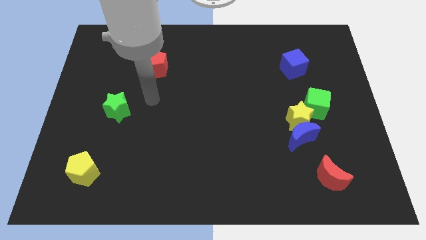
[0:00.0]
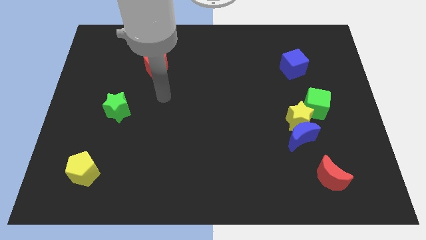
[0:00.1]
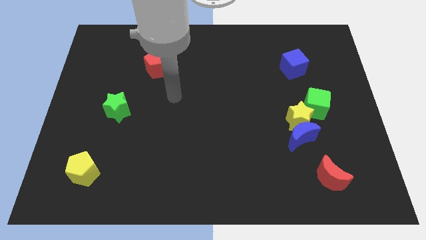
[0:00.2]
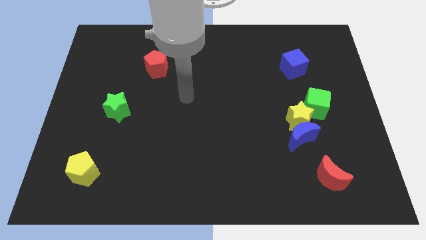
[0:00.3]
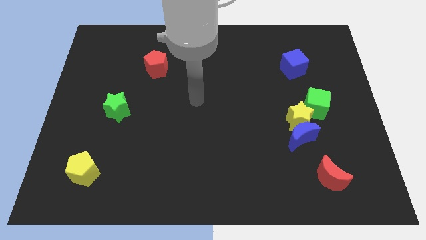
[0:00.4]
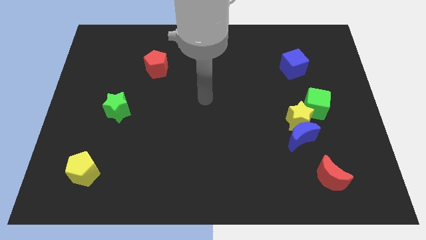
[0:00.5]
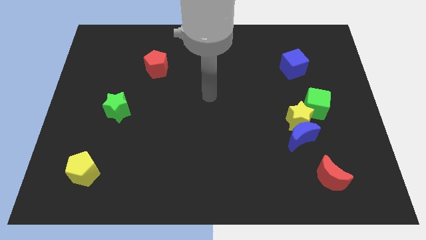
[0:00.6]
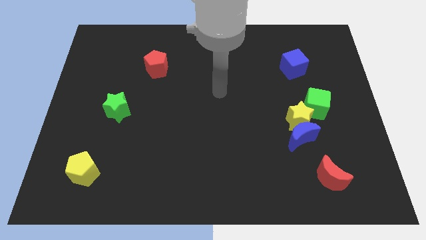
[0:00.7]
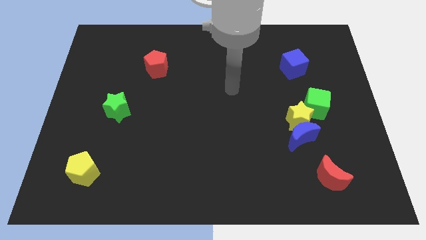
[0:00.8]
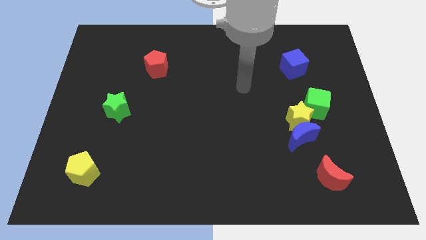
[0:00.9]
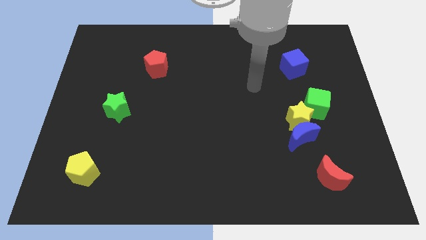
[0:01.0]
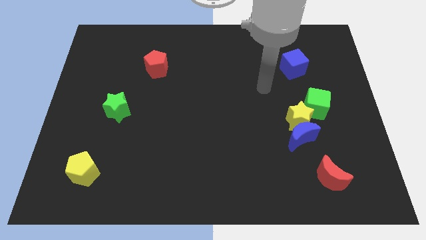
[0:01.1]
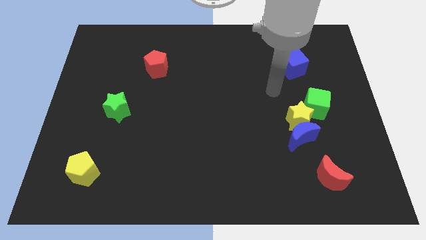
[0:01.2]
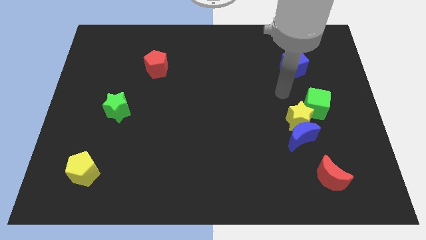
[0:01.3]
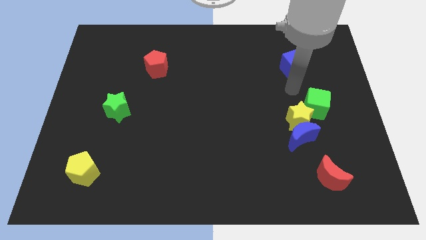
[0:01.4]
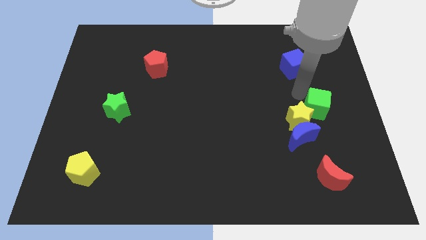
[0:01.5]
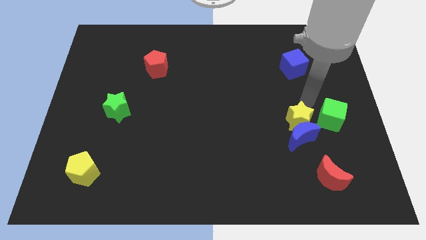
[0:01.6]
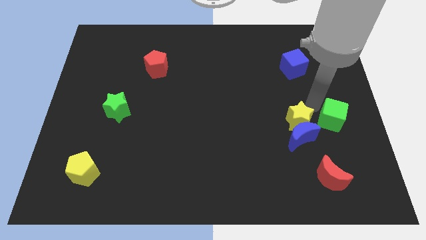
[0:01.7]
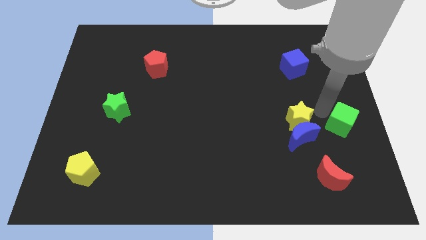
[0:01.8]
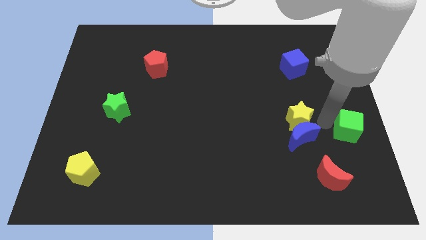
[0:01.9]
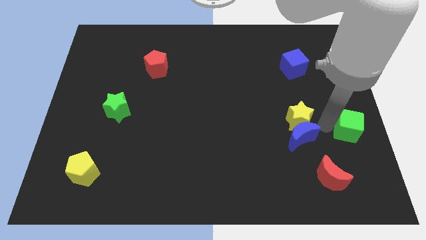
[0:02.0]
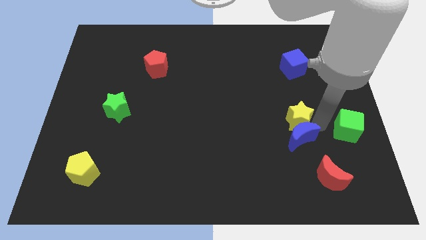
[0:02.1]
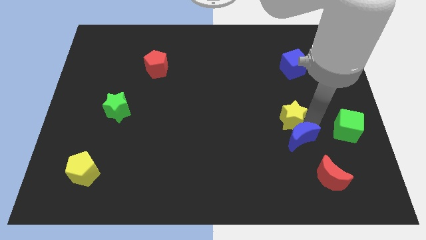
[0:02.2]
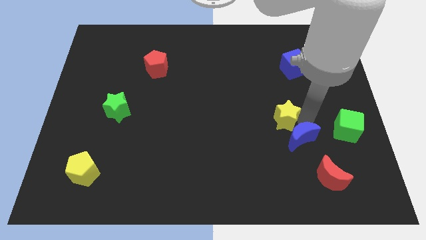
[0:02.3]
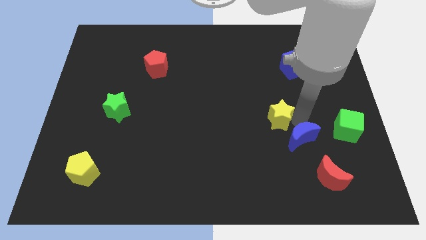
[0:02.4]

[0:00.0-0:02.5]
pull the yellow star apart from the blue moon and green cube

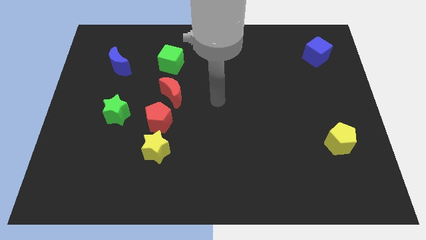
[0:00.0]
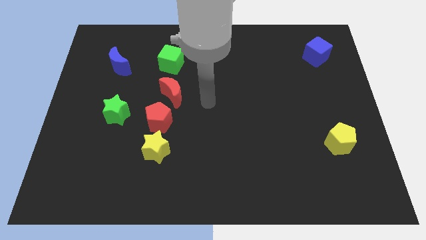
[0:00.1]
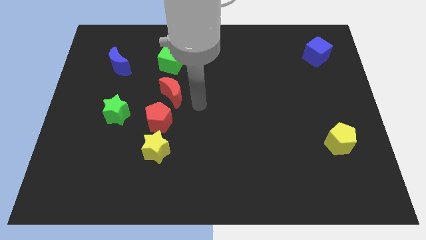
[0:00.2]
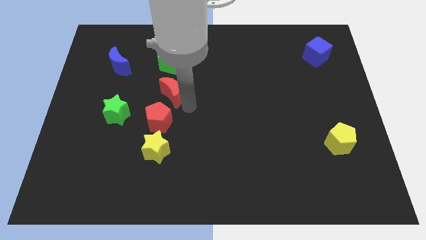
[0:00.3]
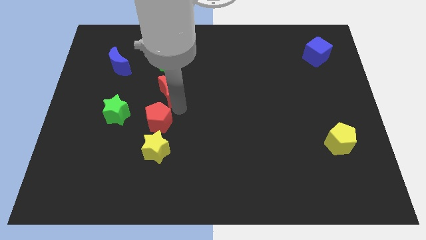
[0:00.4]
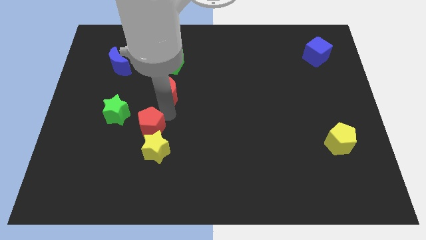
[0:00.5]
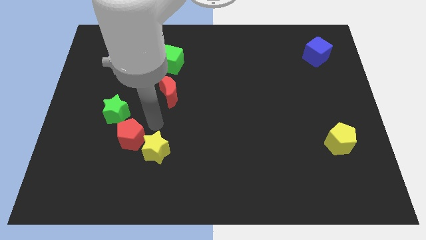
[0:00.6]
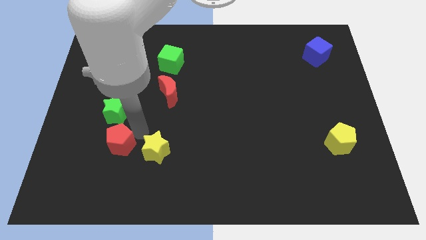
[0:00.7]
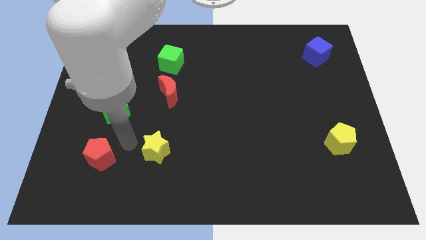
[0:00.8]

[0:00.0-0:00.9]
separate the yellow star from the red pentagon

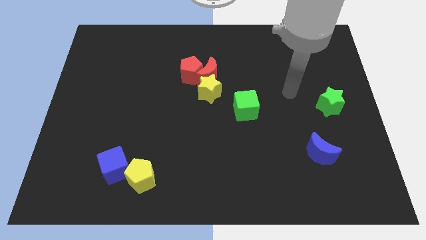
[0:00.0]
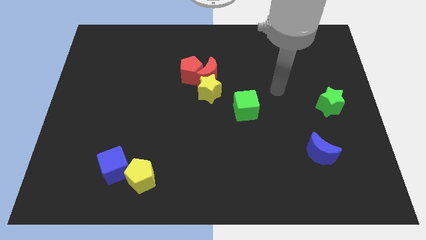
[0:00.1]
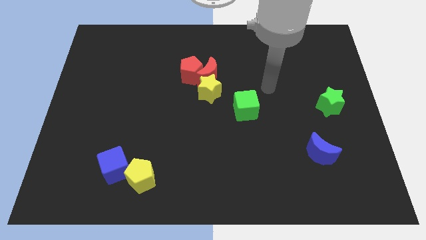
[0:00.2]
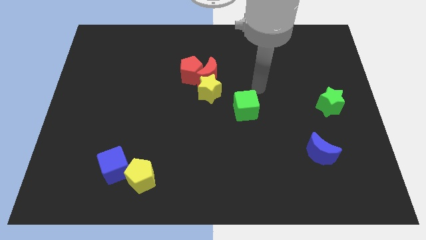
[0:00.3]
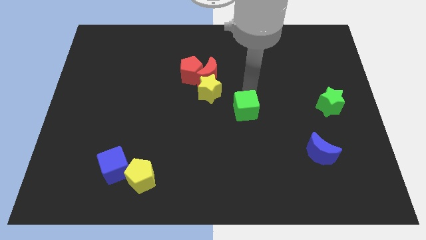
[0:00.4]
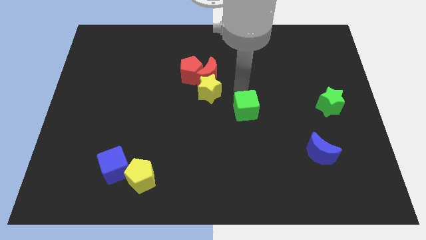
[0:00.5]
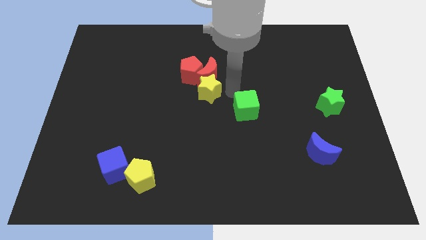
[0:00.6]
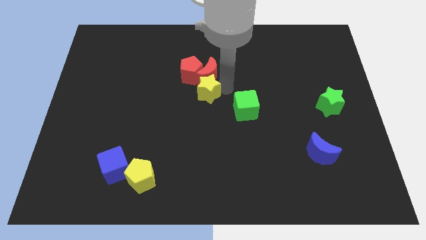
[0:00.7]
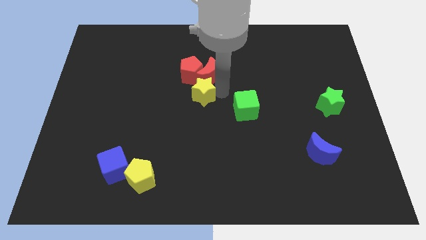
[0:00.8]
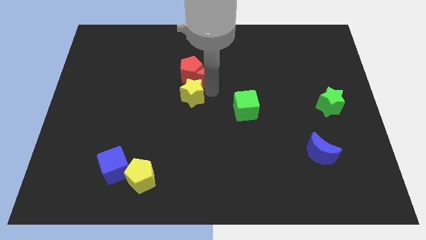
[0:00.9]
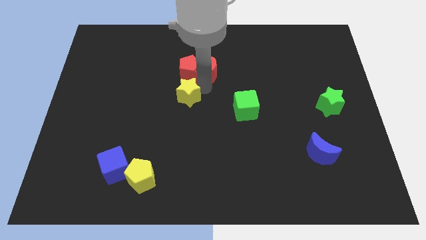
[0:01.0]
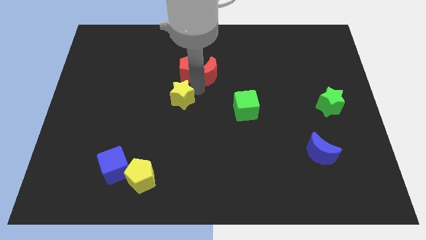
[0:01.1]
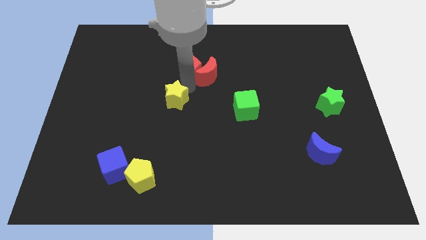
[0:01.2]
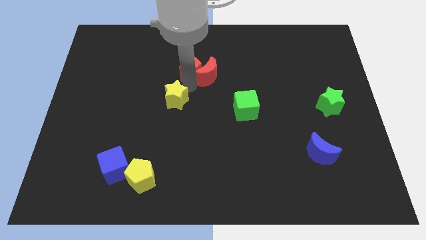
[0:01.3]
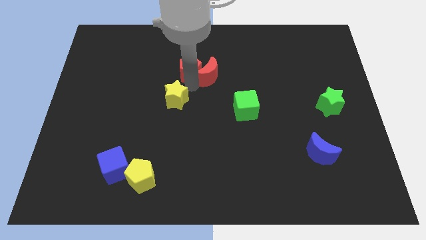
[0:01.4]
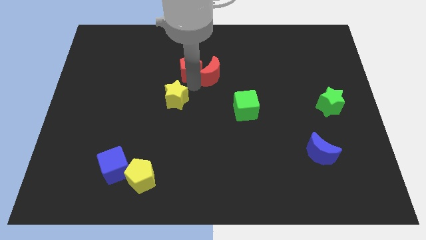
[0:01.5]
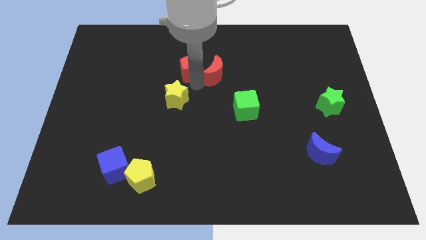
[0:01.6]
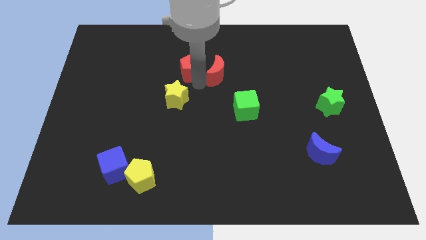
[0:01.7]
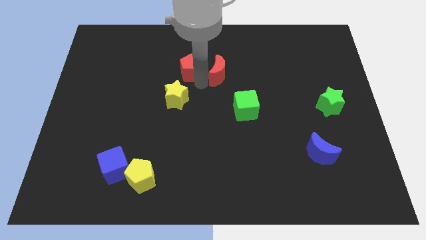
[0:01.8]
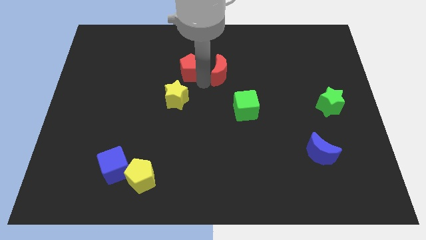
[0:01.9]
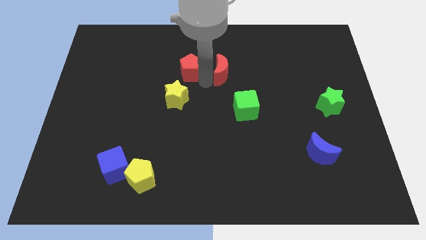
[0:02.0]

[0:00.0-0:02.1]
move the red moon away from the red pentagon and yellow star

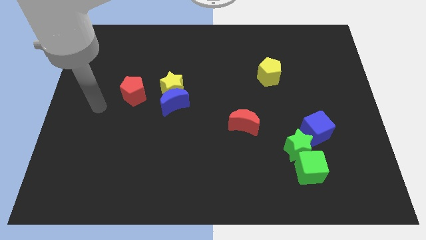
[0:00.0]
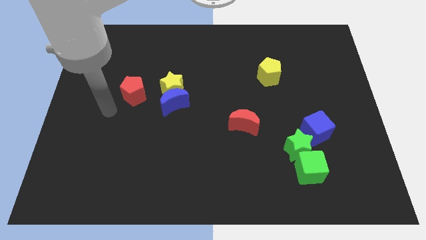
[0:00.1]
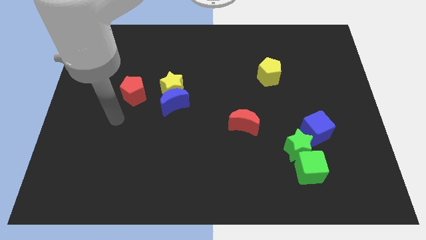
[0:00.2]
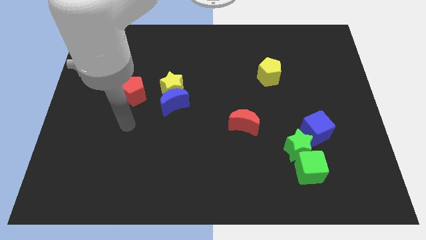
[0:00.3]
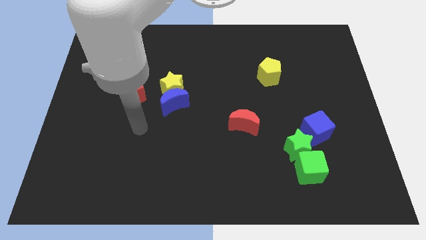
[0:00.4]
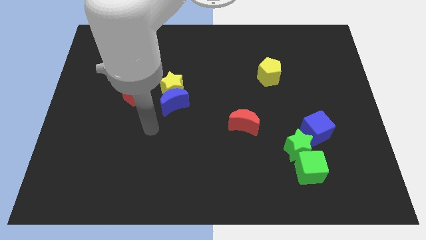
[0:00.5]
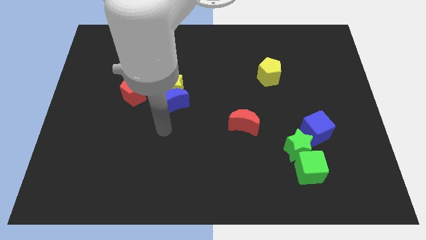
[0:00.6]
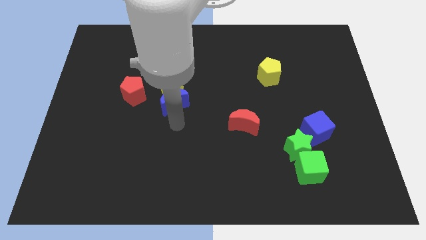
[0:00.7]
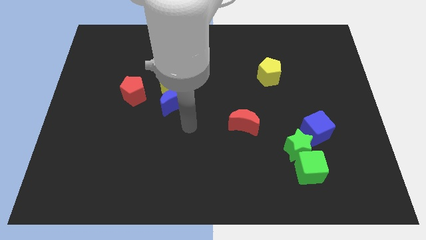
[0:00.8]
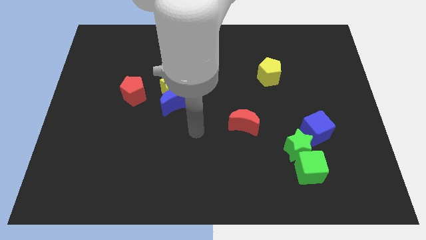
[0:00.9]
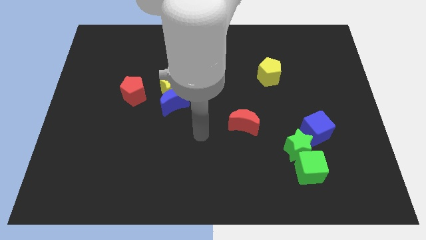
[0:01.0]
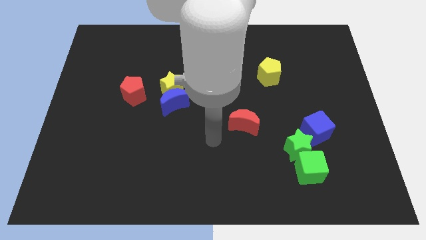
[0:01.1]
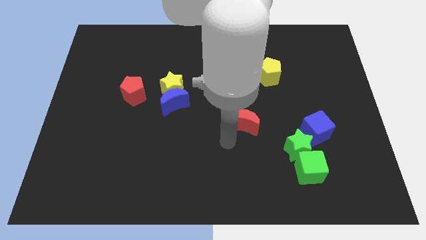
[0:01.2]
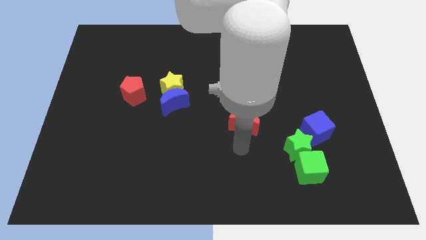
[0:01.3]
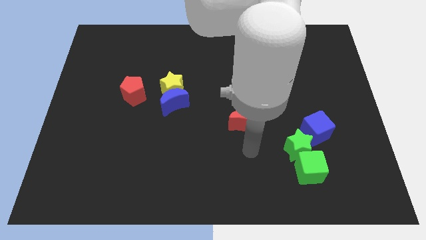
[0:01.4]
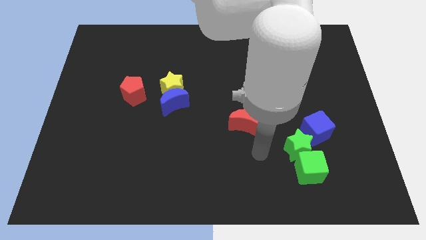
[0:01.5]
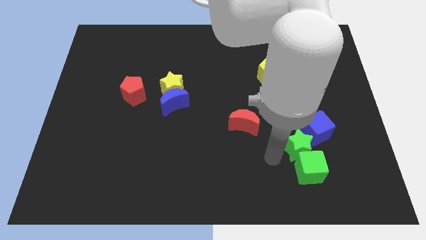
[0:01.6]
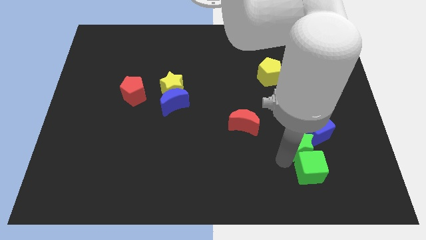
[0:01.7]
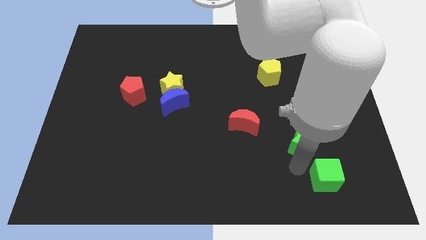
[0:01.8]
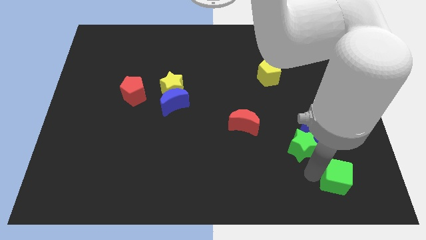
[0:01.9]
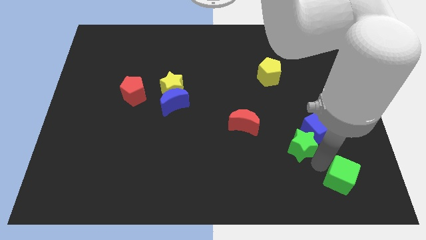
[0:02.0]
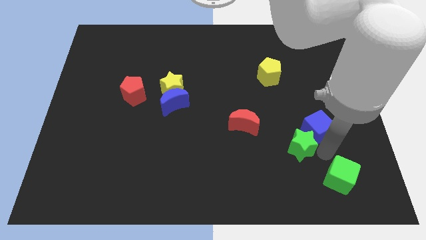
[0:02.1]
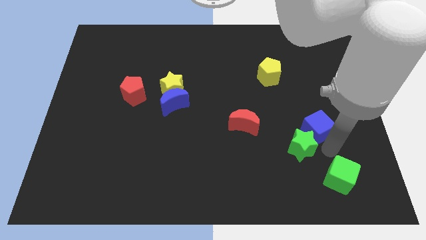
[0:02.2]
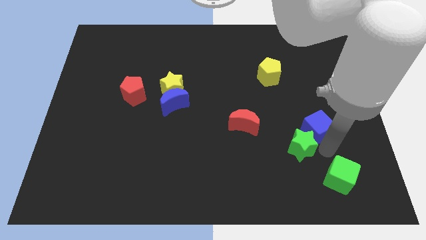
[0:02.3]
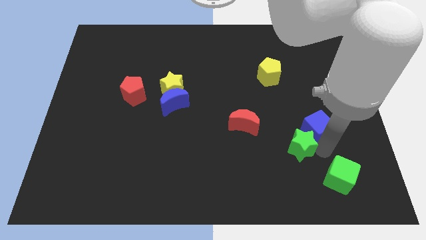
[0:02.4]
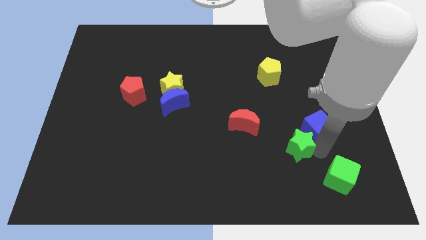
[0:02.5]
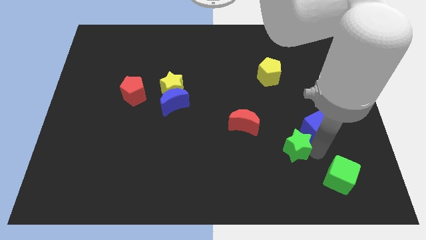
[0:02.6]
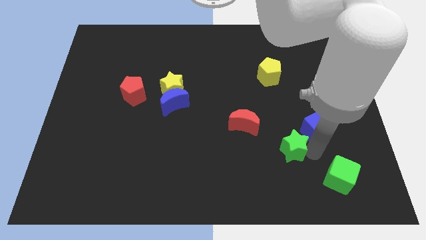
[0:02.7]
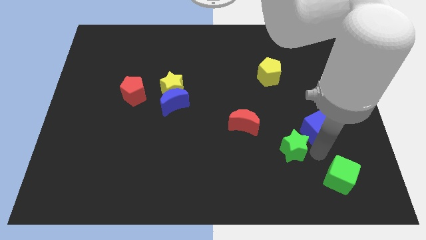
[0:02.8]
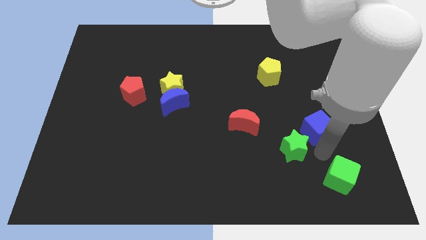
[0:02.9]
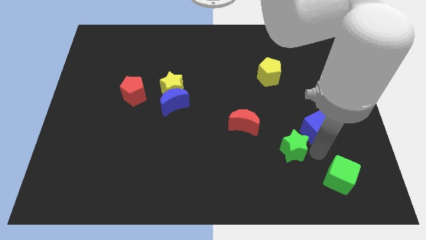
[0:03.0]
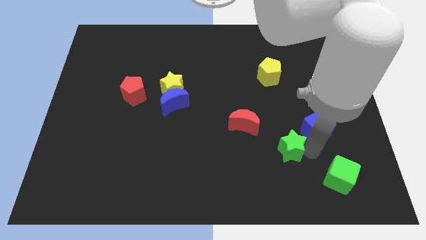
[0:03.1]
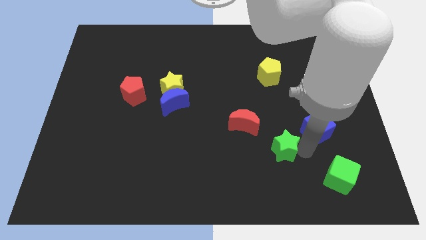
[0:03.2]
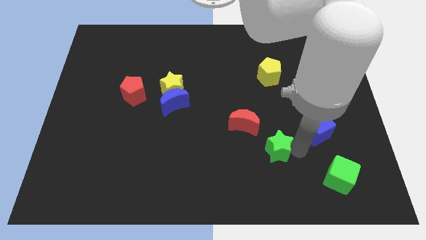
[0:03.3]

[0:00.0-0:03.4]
move the green star away from the green cube and blue cube

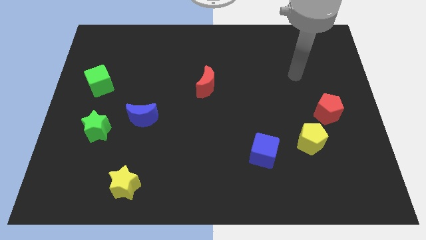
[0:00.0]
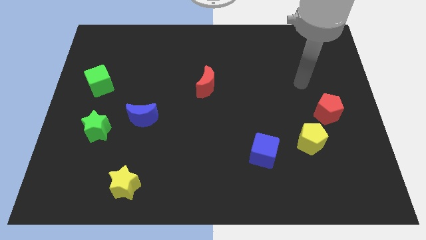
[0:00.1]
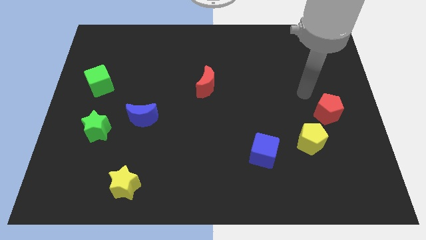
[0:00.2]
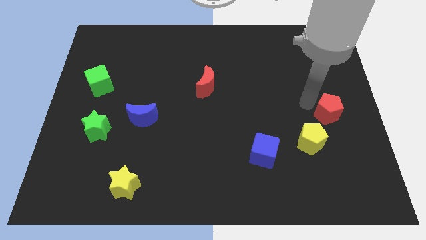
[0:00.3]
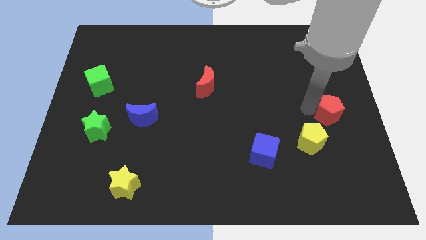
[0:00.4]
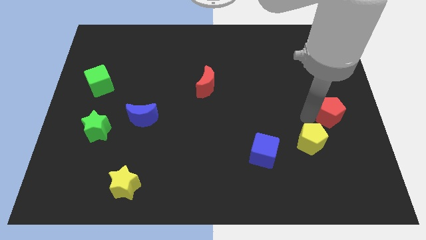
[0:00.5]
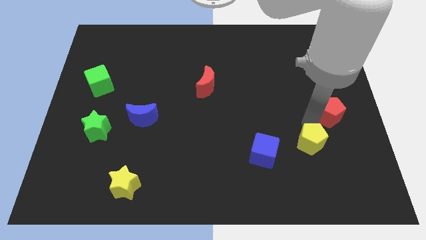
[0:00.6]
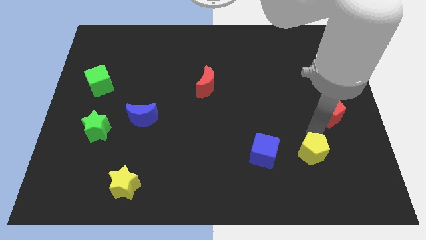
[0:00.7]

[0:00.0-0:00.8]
separate the red pentagon from the yellow pentagon
